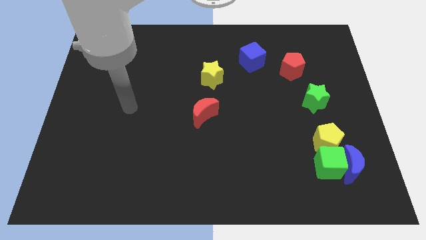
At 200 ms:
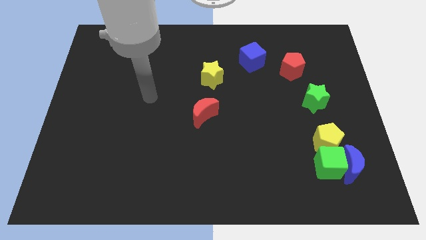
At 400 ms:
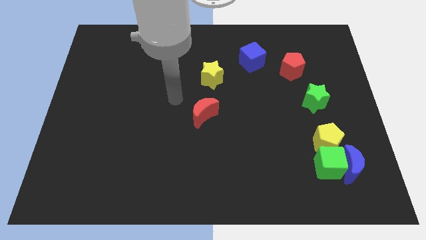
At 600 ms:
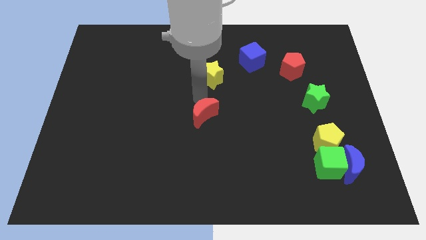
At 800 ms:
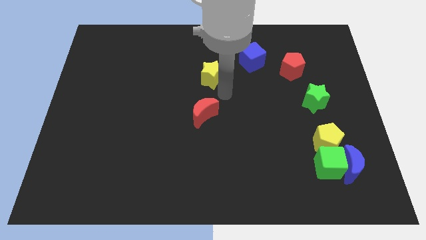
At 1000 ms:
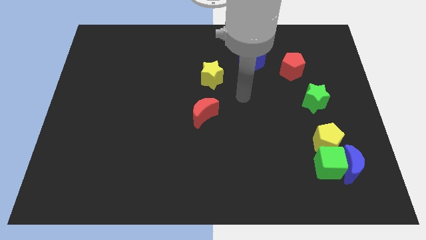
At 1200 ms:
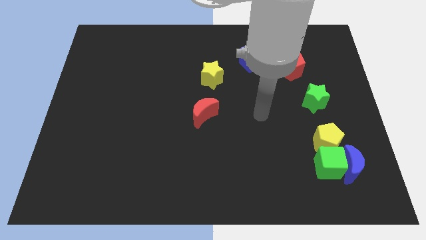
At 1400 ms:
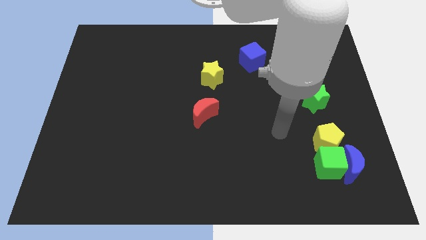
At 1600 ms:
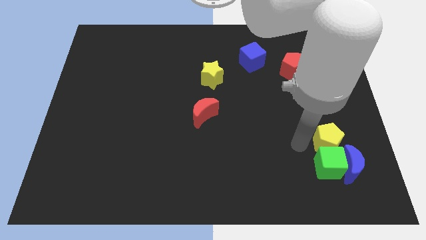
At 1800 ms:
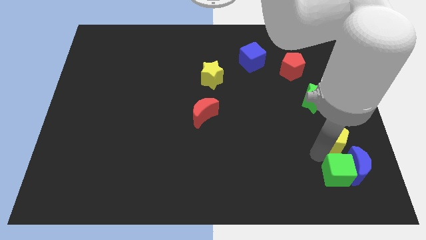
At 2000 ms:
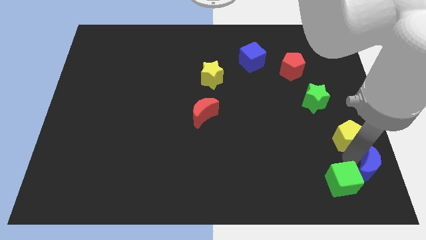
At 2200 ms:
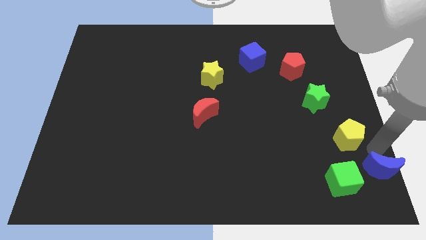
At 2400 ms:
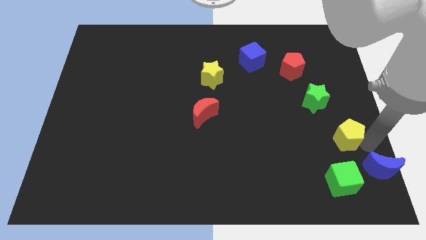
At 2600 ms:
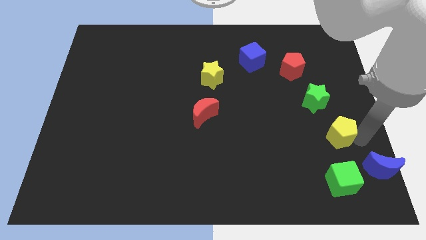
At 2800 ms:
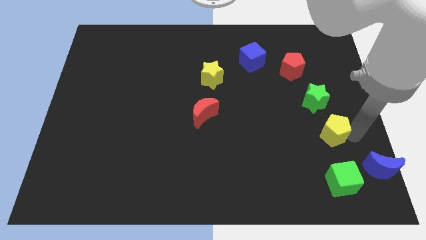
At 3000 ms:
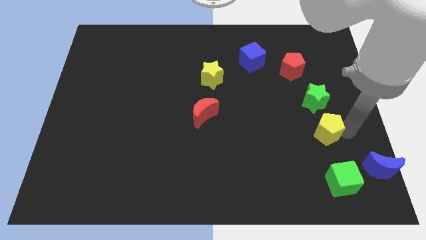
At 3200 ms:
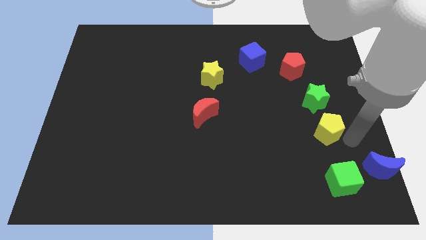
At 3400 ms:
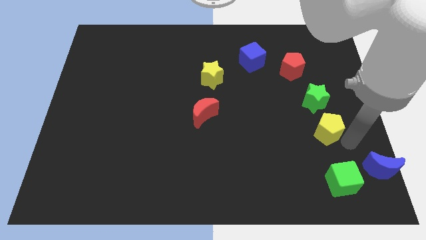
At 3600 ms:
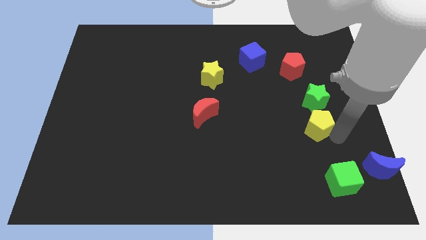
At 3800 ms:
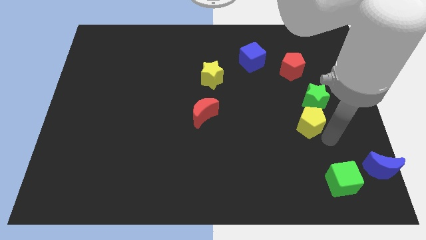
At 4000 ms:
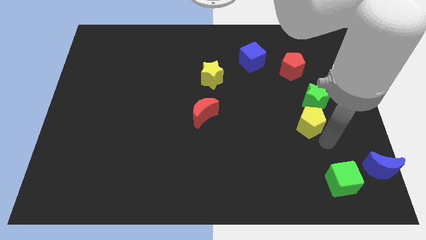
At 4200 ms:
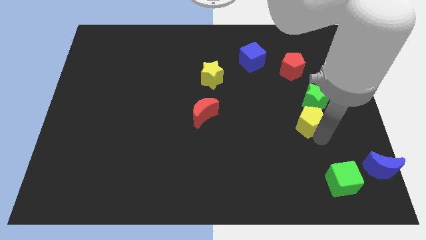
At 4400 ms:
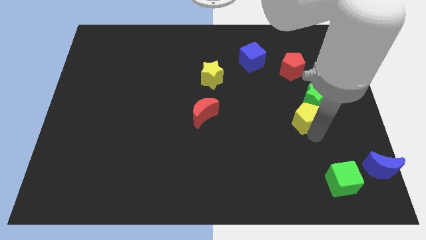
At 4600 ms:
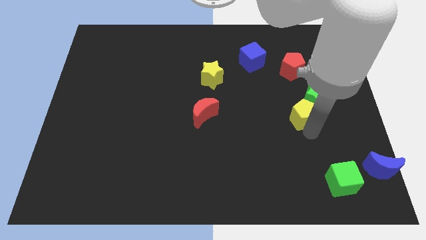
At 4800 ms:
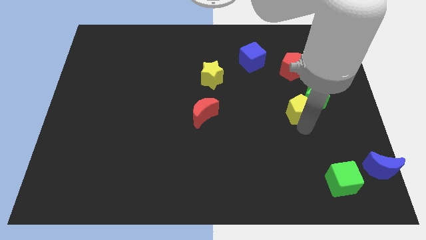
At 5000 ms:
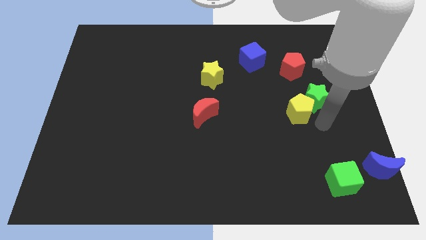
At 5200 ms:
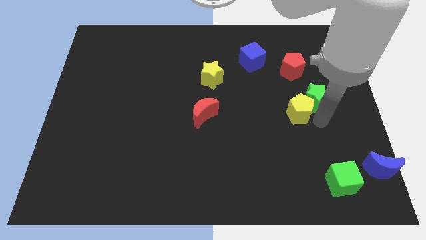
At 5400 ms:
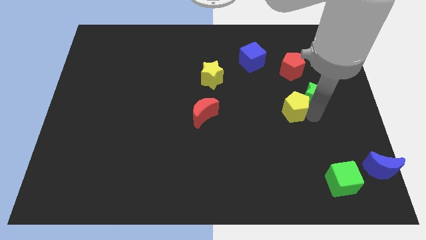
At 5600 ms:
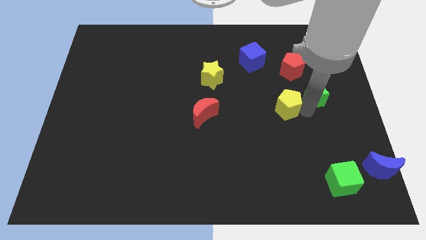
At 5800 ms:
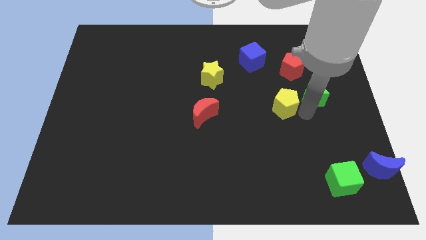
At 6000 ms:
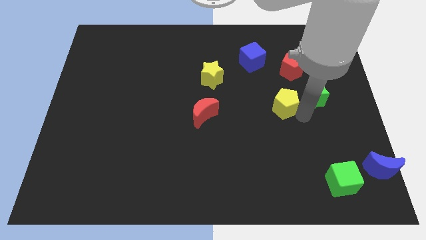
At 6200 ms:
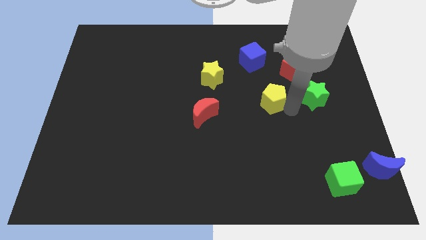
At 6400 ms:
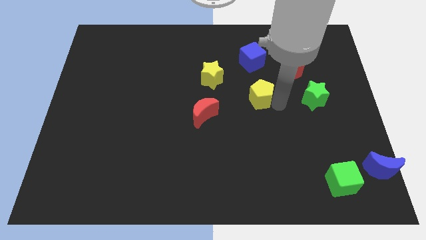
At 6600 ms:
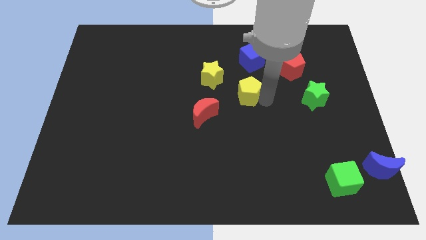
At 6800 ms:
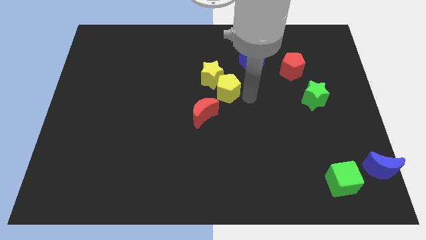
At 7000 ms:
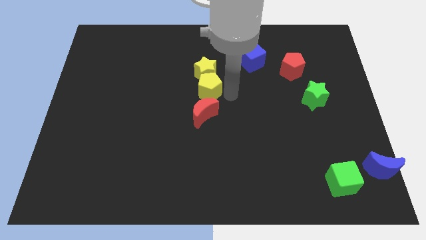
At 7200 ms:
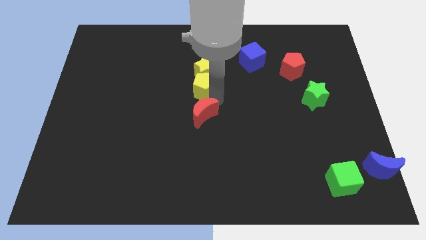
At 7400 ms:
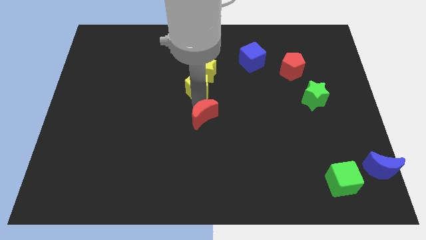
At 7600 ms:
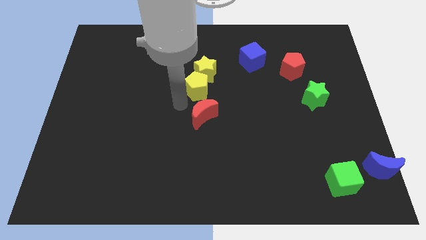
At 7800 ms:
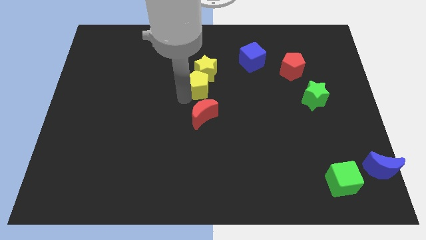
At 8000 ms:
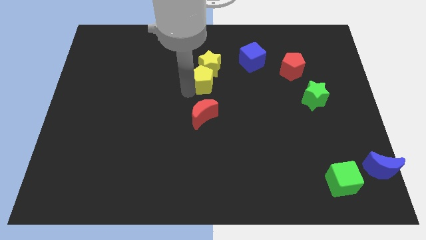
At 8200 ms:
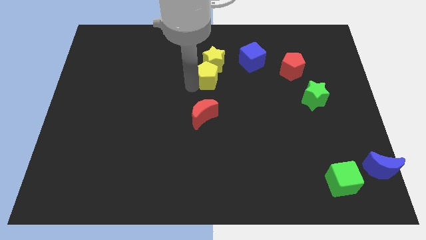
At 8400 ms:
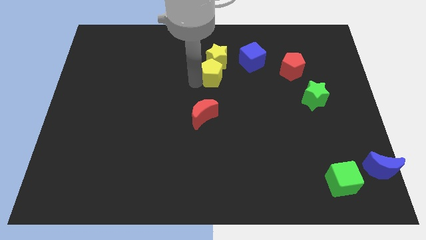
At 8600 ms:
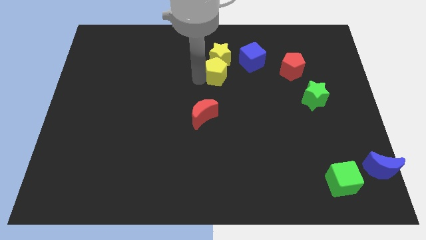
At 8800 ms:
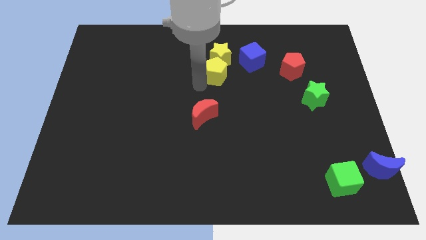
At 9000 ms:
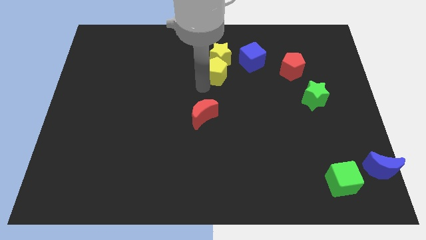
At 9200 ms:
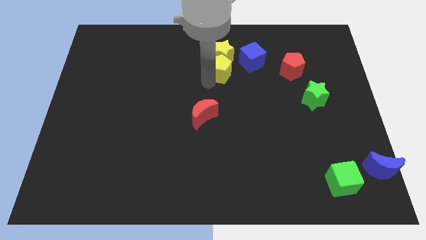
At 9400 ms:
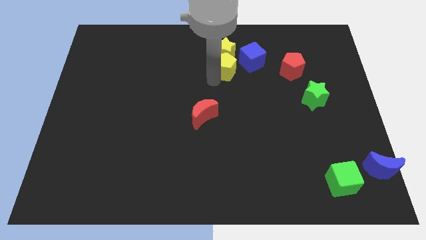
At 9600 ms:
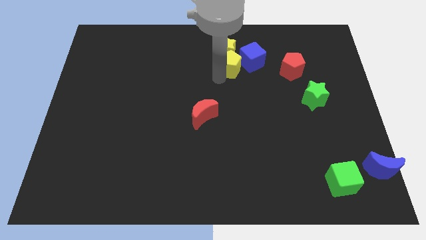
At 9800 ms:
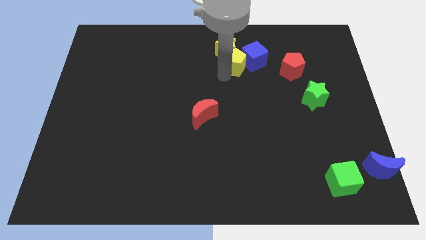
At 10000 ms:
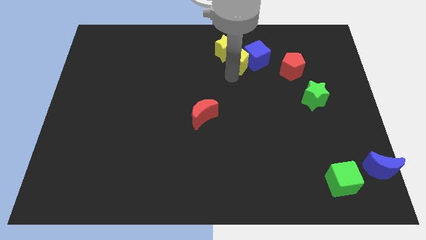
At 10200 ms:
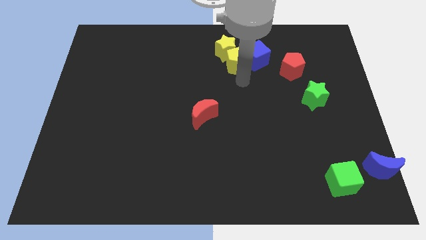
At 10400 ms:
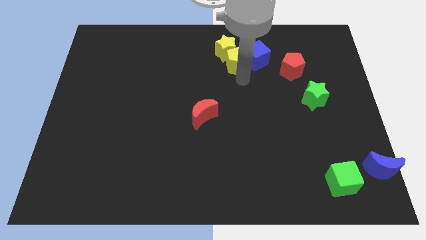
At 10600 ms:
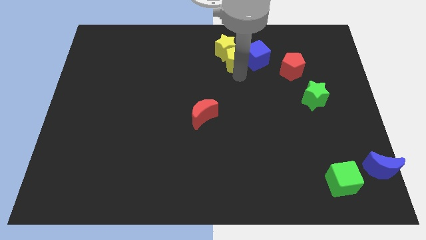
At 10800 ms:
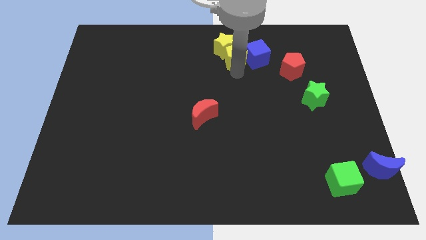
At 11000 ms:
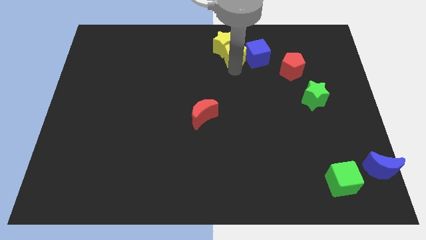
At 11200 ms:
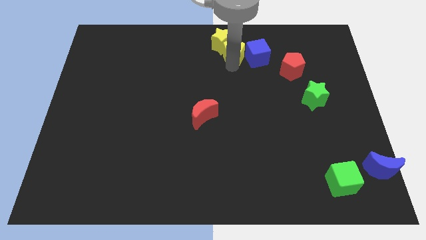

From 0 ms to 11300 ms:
move the yellow pentagon to the top

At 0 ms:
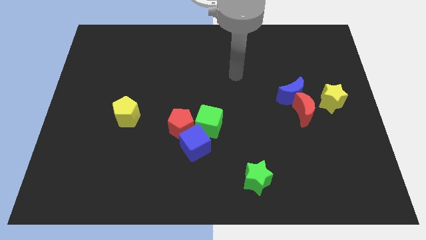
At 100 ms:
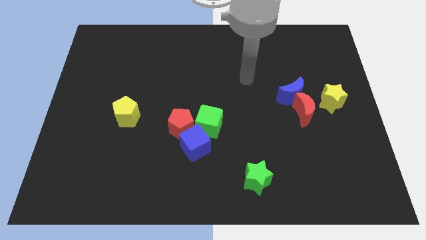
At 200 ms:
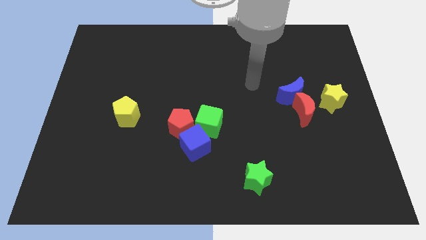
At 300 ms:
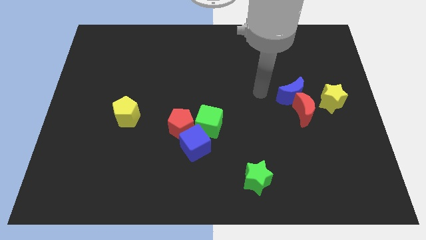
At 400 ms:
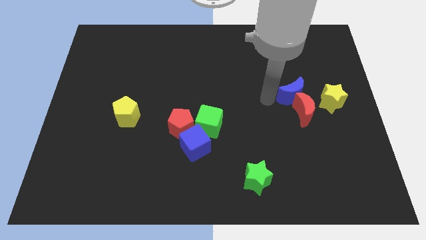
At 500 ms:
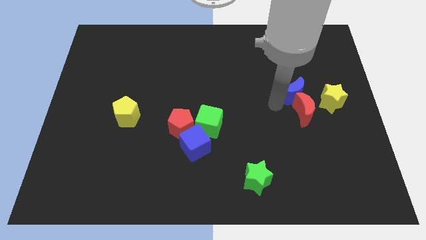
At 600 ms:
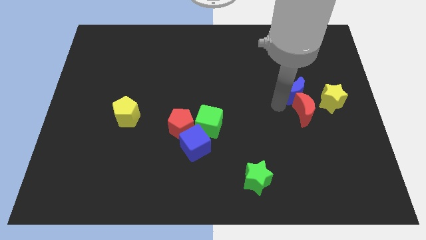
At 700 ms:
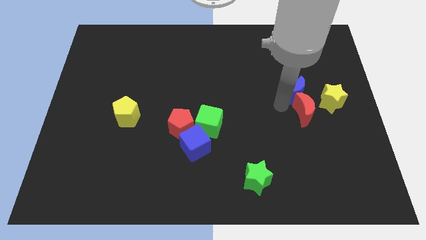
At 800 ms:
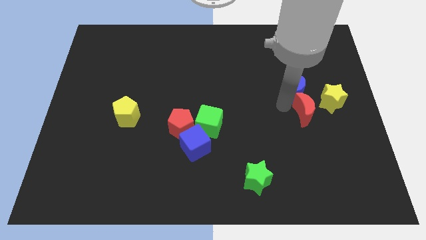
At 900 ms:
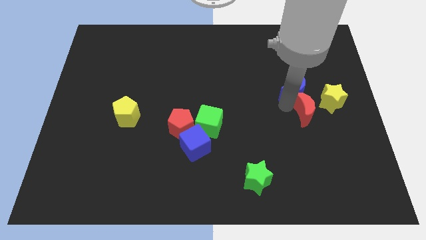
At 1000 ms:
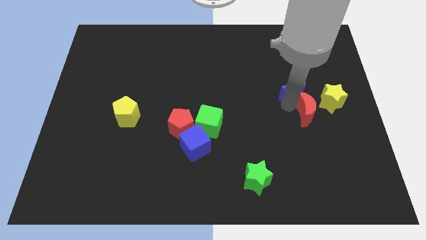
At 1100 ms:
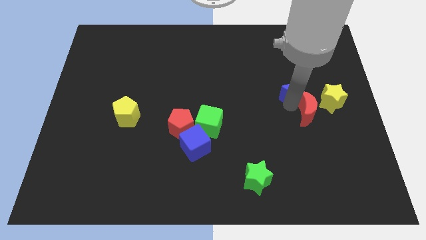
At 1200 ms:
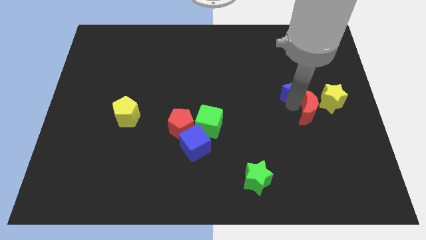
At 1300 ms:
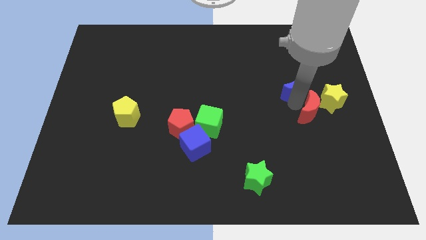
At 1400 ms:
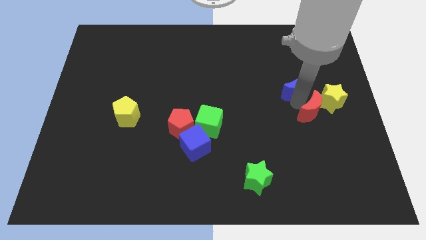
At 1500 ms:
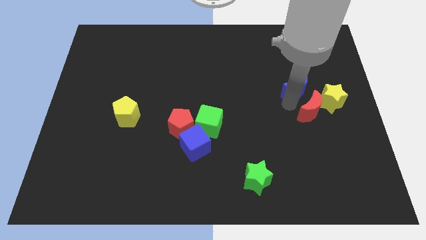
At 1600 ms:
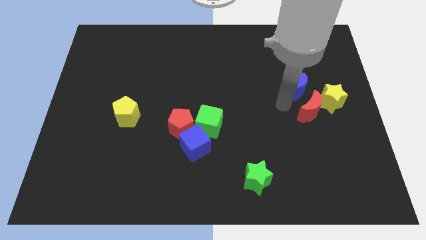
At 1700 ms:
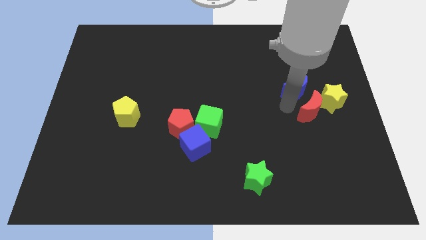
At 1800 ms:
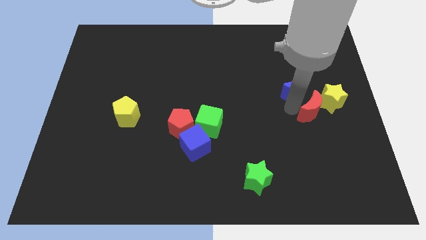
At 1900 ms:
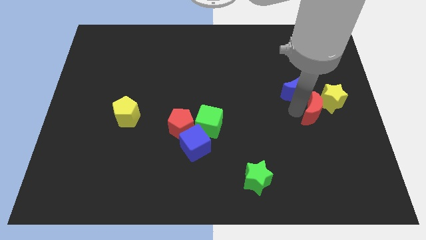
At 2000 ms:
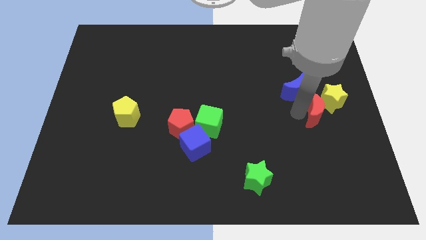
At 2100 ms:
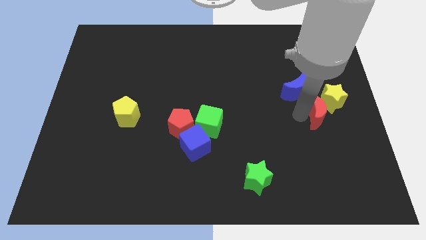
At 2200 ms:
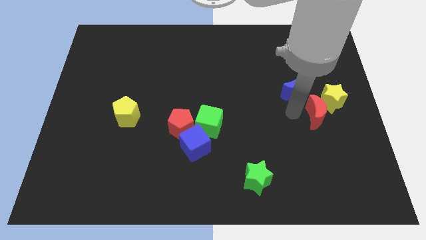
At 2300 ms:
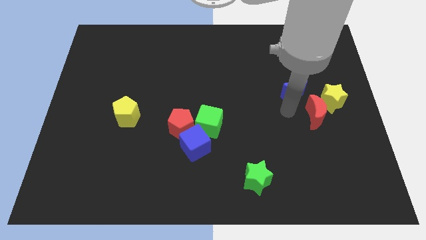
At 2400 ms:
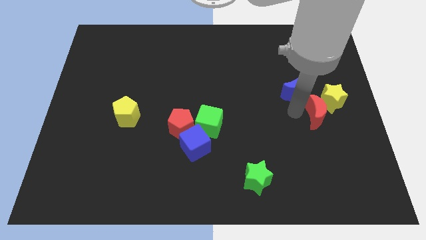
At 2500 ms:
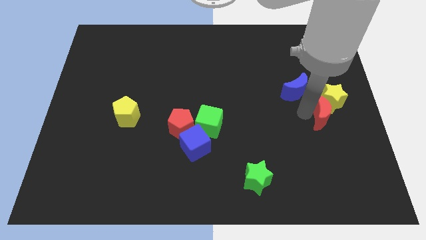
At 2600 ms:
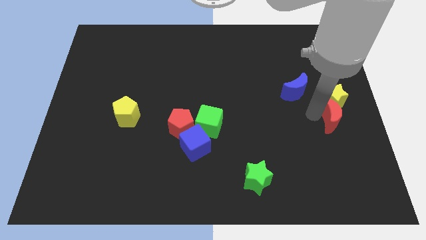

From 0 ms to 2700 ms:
slide the red moon to the center right
